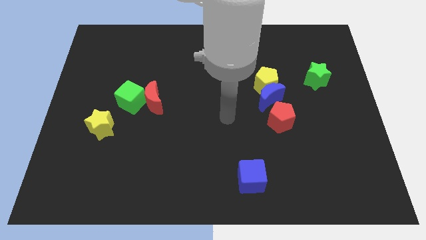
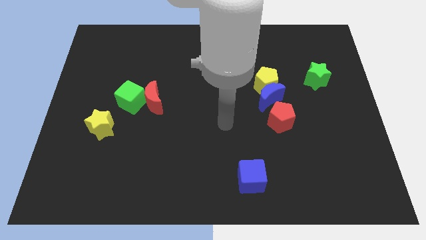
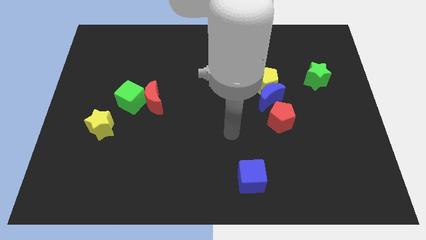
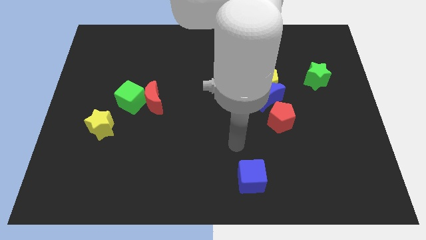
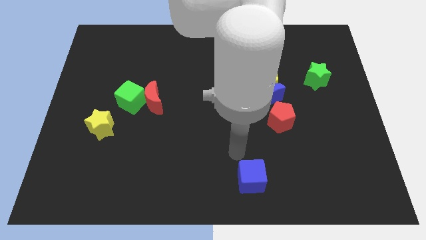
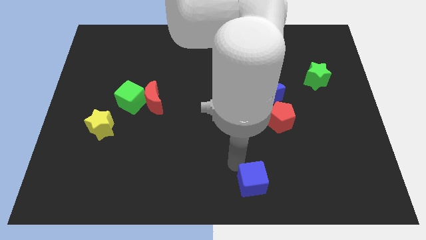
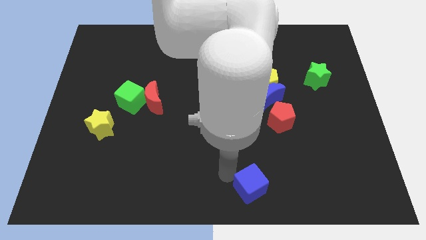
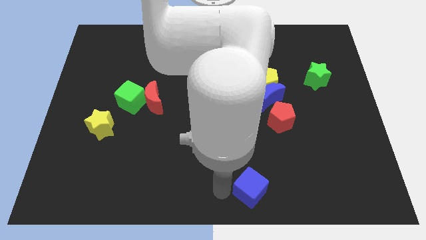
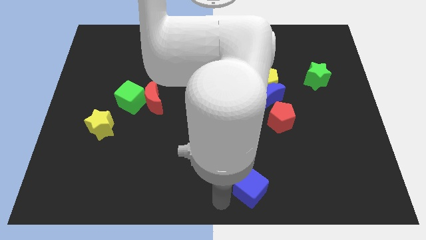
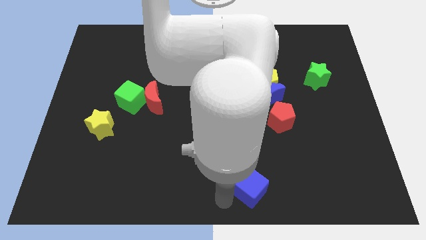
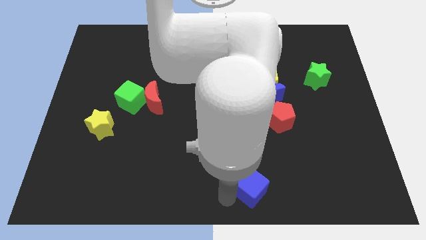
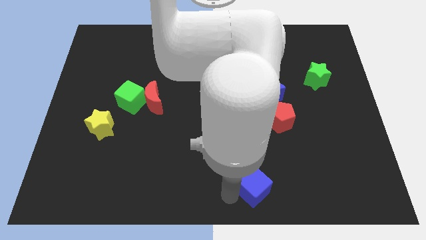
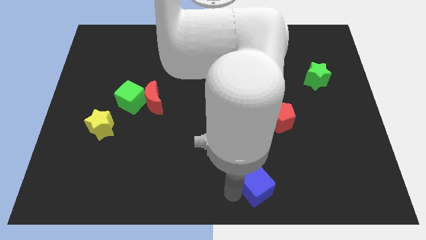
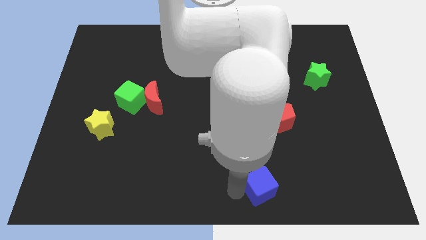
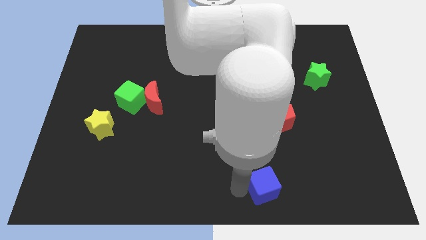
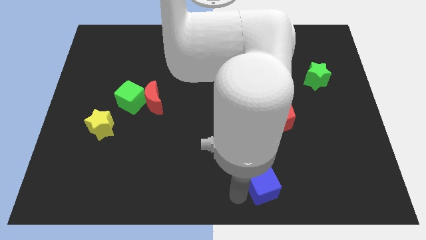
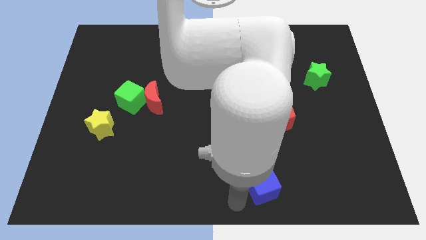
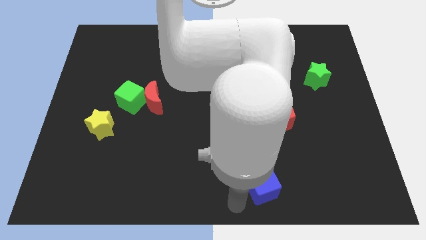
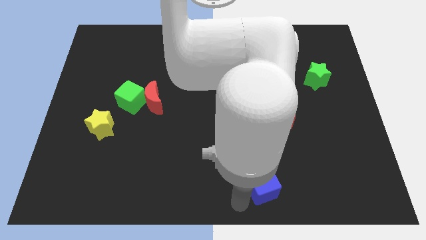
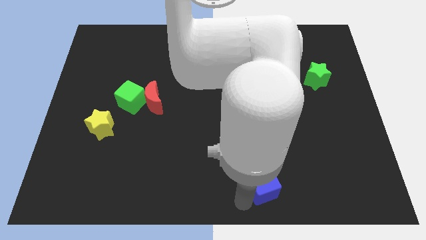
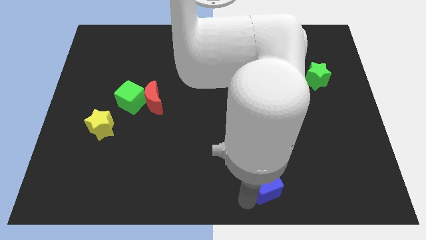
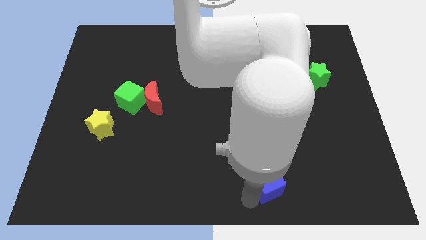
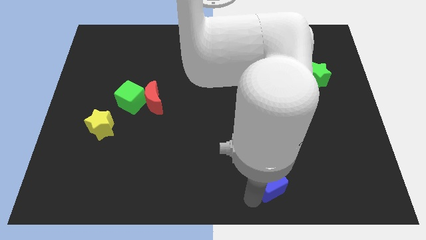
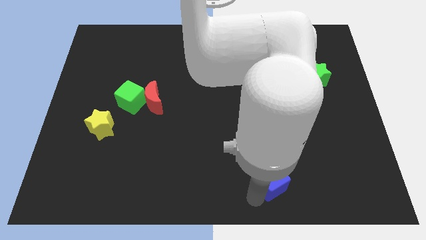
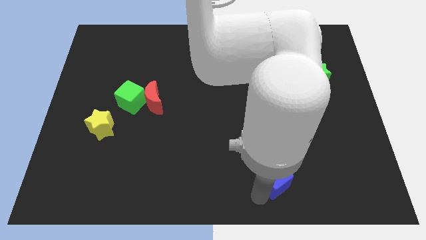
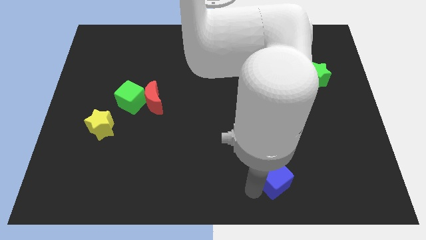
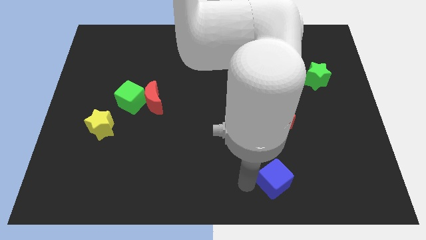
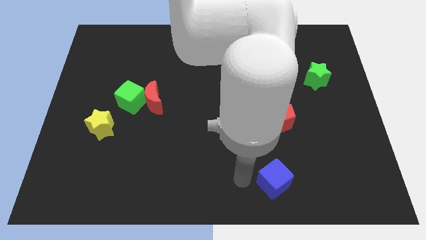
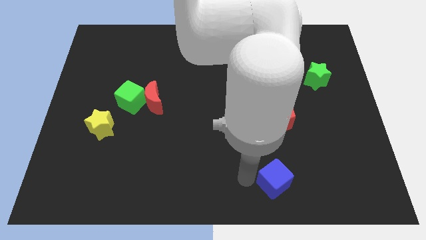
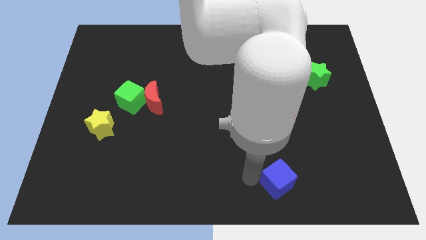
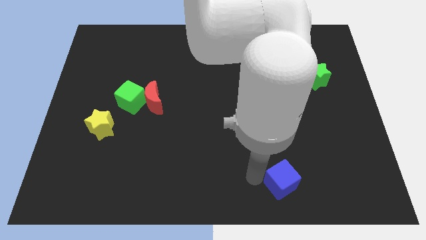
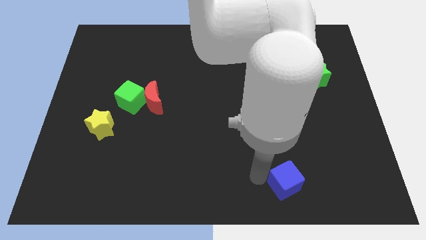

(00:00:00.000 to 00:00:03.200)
slide the blue cube right slightly

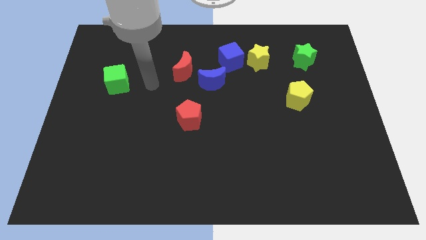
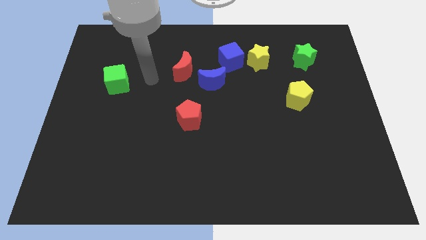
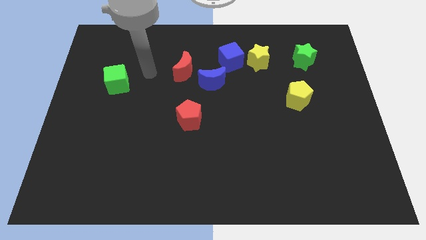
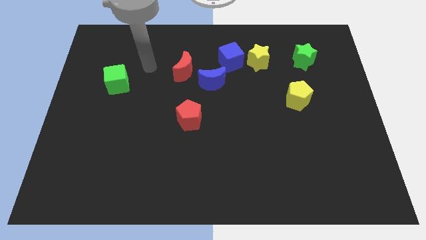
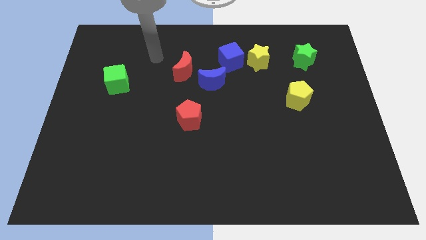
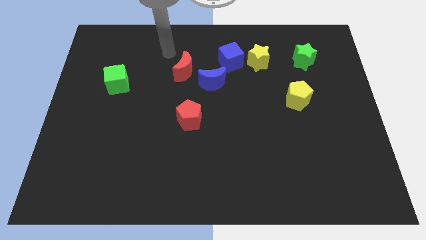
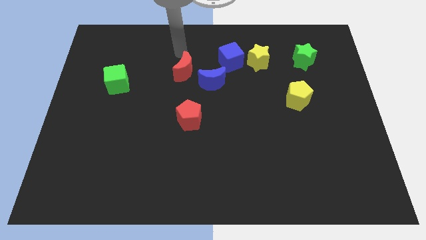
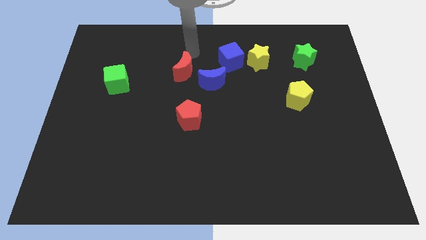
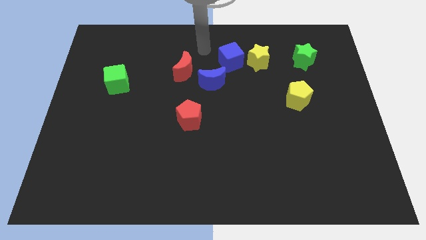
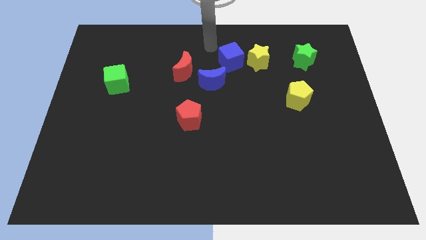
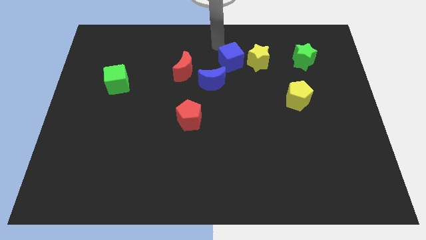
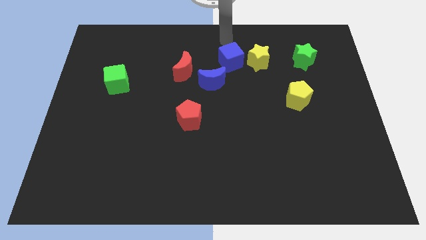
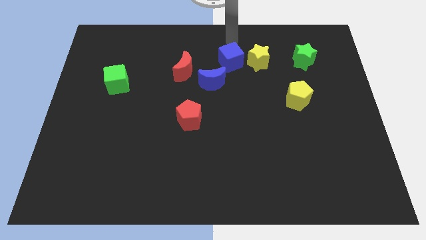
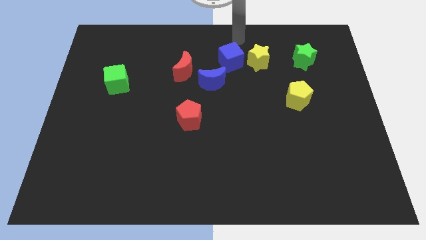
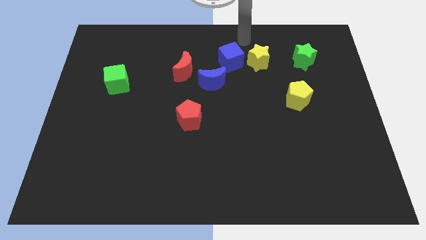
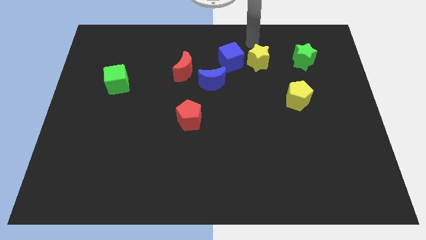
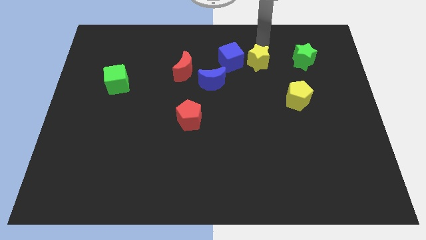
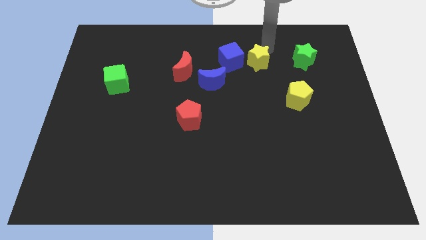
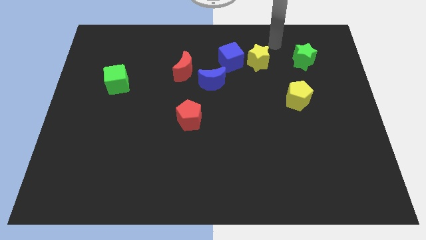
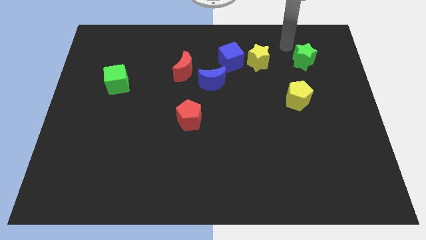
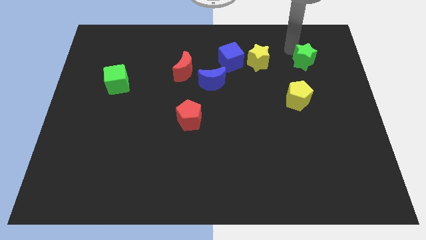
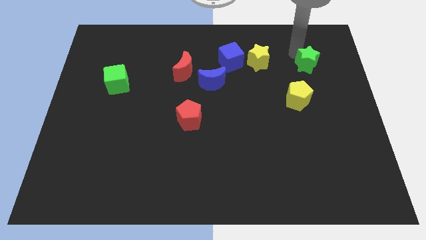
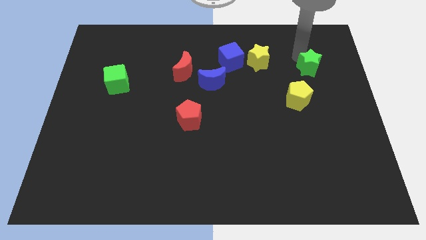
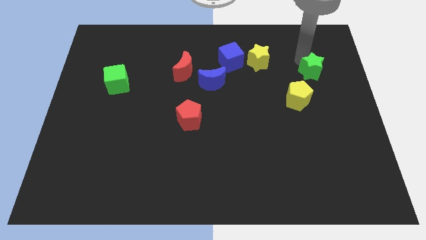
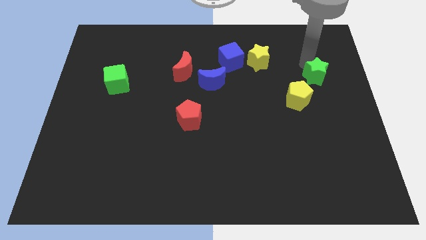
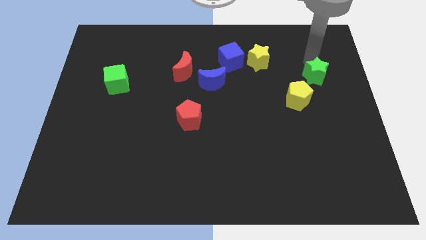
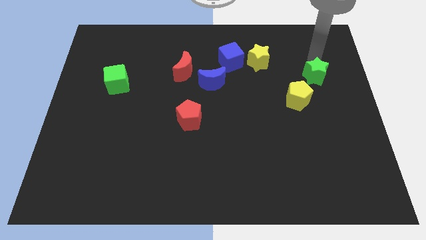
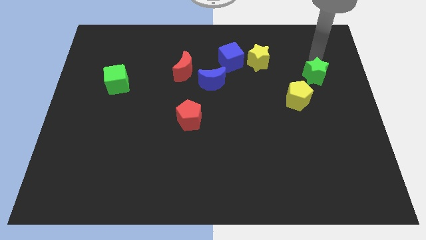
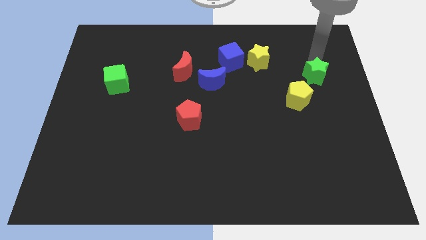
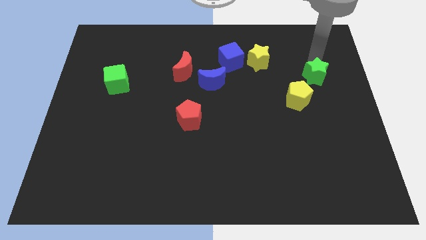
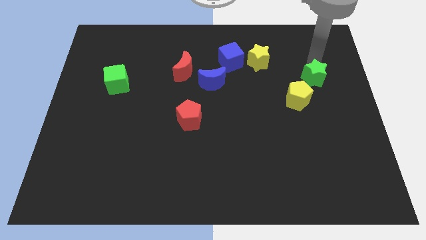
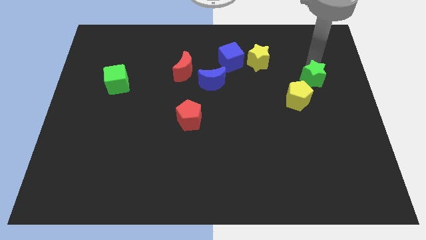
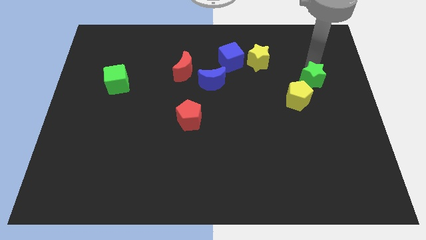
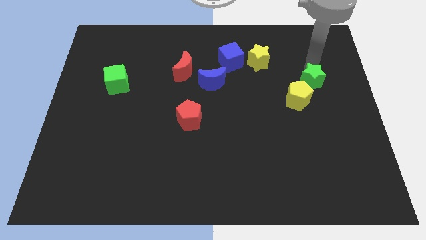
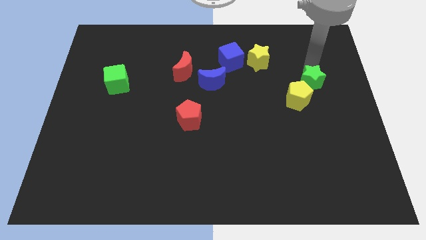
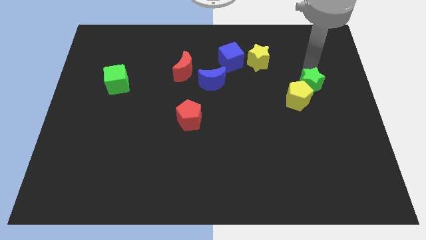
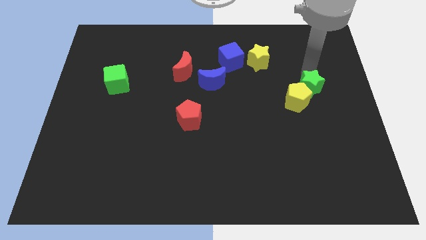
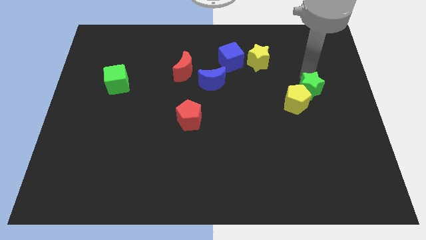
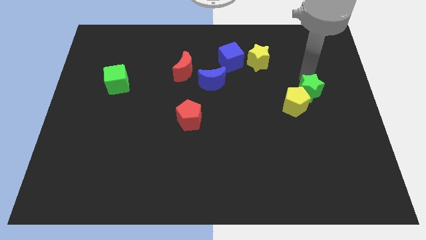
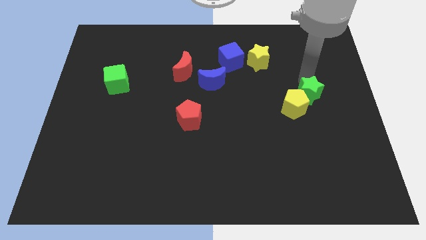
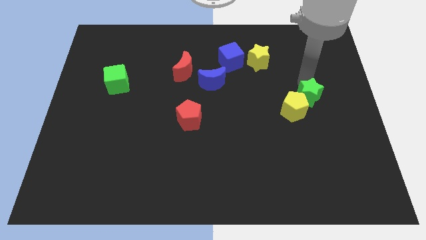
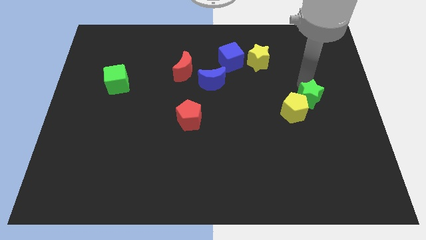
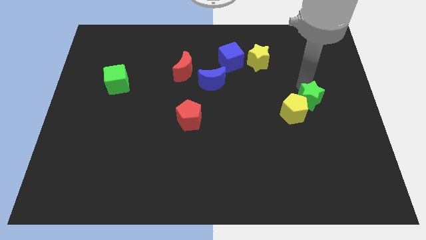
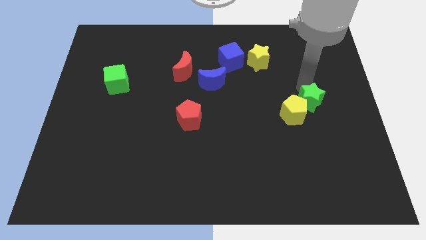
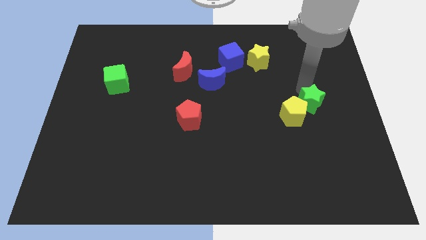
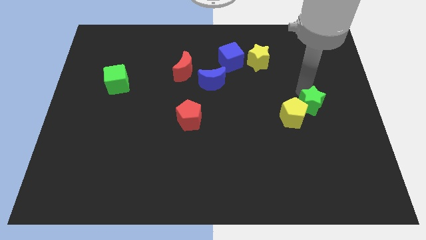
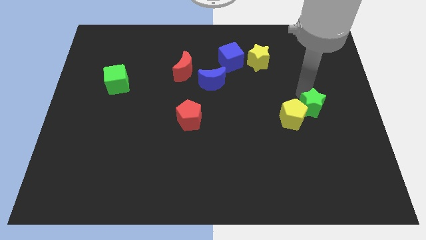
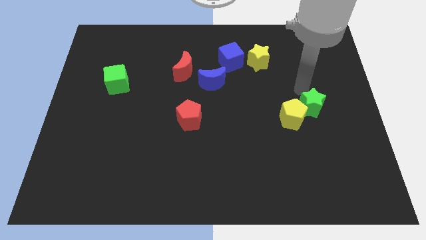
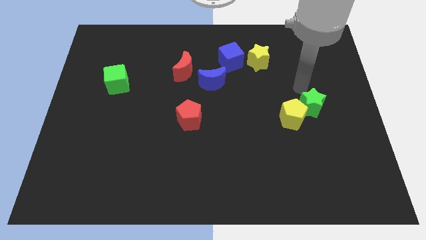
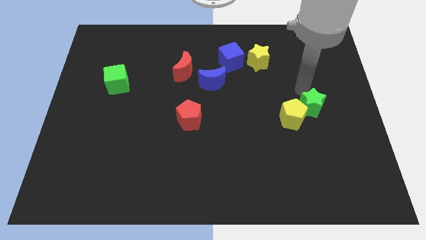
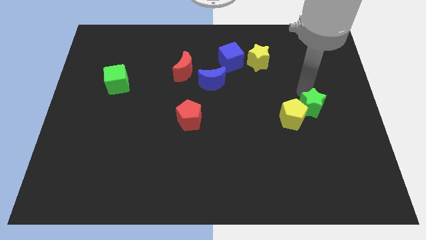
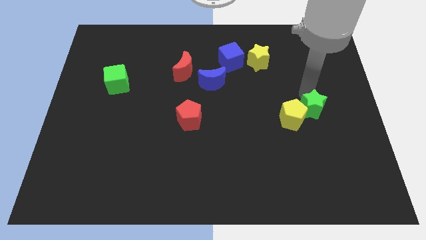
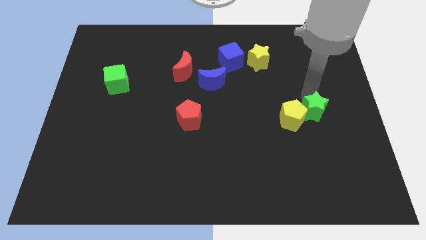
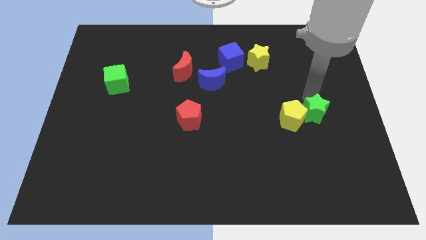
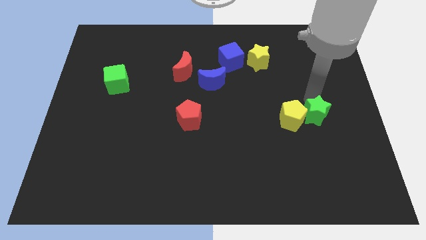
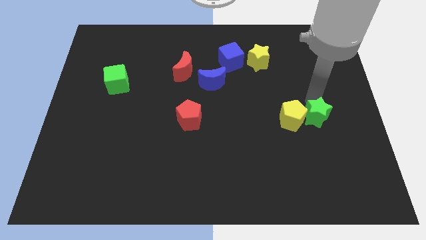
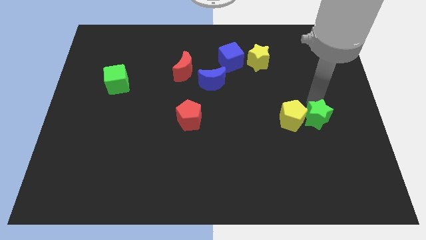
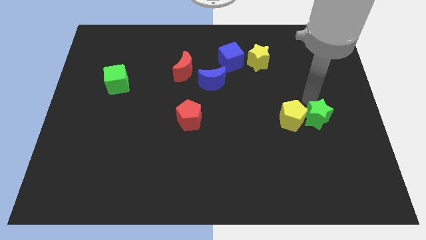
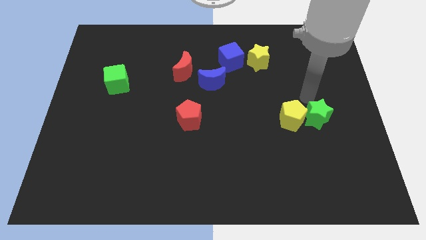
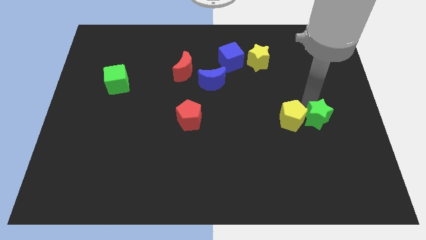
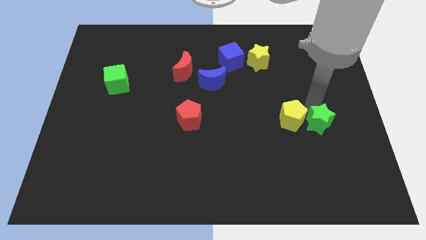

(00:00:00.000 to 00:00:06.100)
slide the green star downwards
